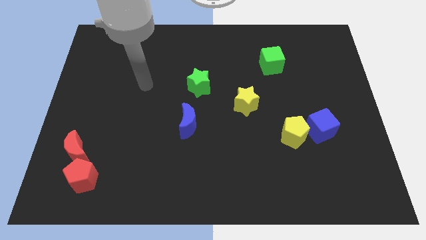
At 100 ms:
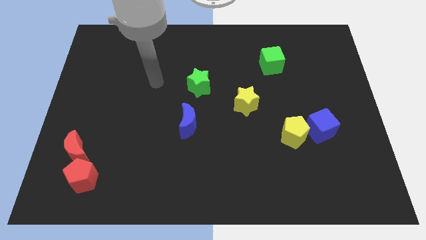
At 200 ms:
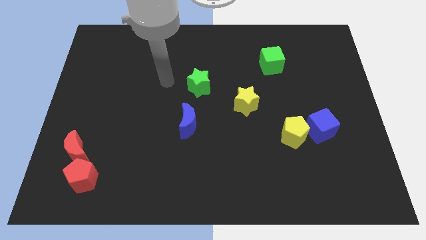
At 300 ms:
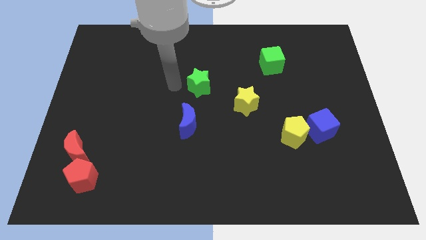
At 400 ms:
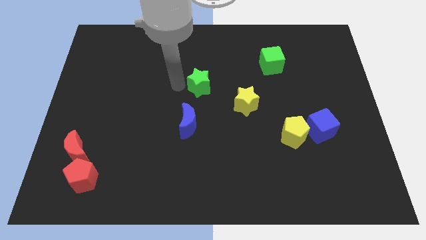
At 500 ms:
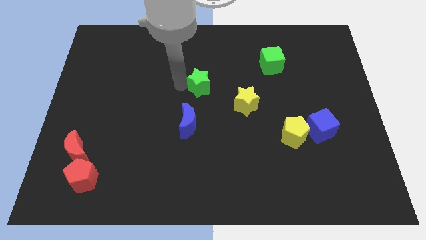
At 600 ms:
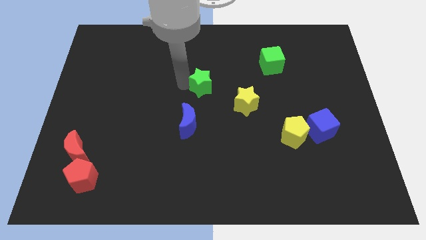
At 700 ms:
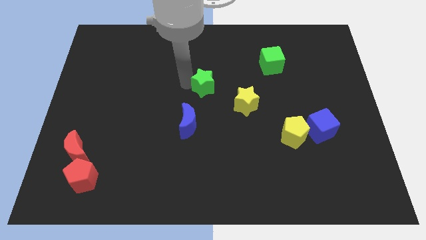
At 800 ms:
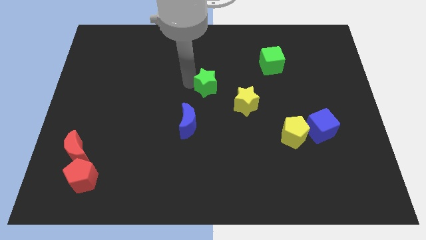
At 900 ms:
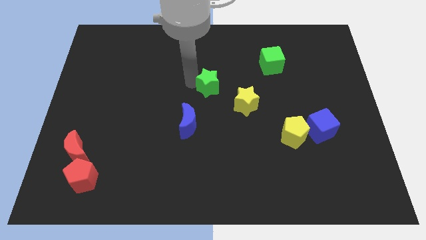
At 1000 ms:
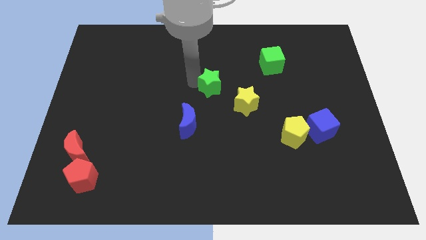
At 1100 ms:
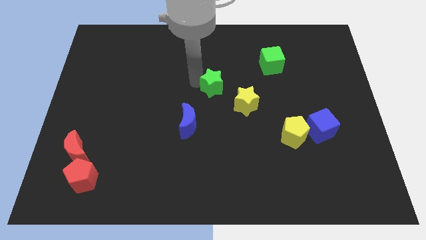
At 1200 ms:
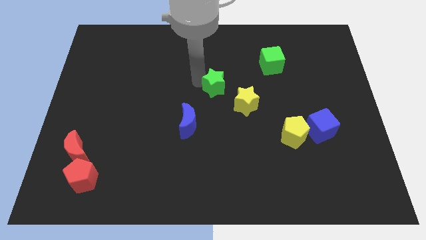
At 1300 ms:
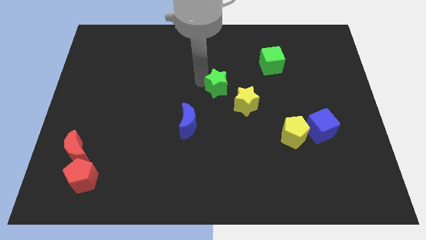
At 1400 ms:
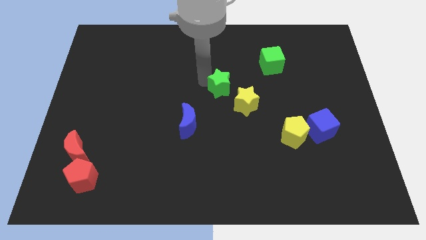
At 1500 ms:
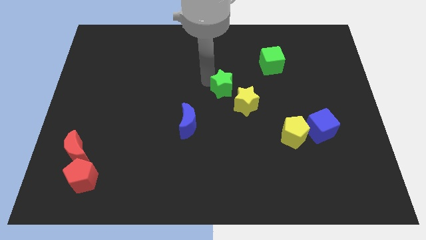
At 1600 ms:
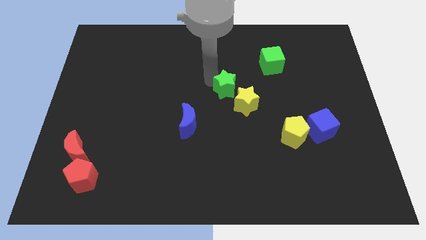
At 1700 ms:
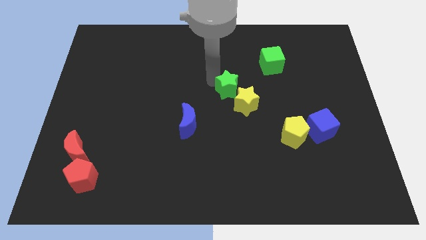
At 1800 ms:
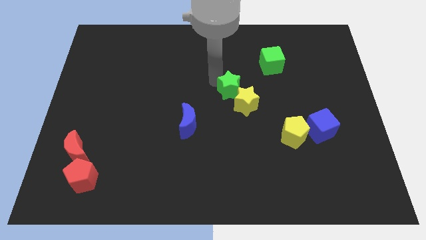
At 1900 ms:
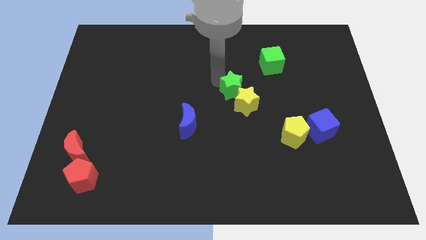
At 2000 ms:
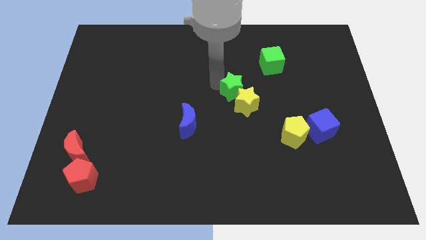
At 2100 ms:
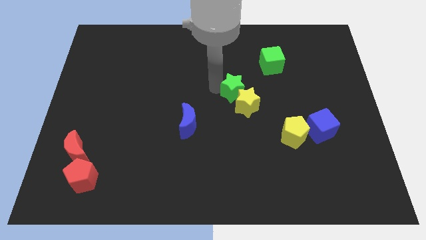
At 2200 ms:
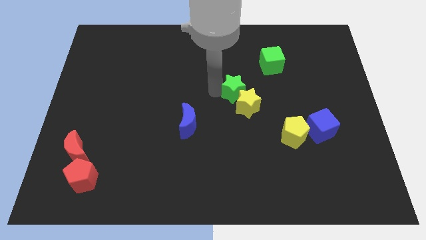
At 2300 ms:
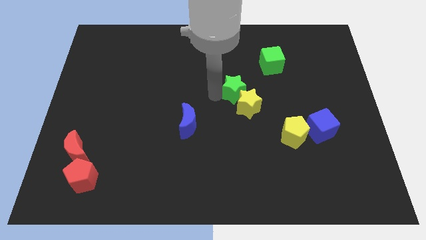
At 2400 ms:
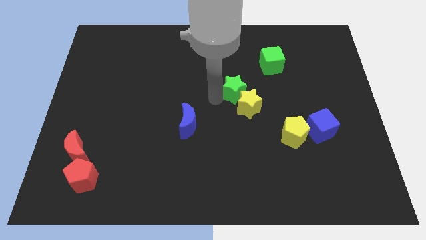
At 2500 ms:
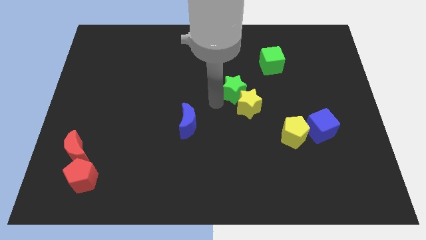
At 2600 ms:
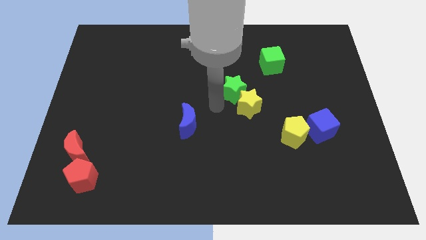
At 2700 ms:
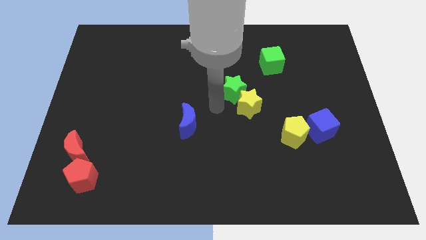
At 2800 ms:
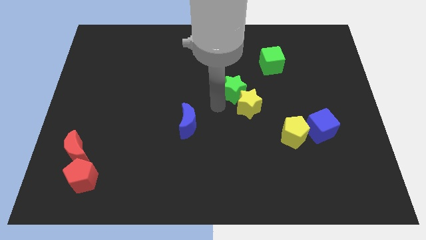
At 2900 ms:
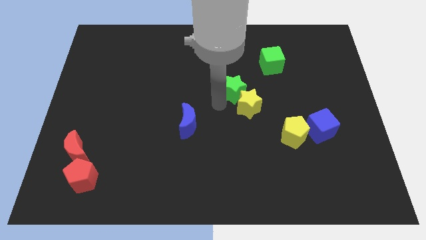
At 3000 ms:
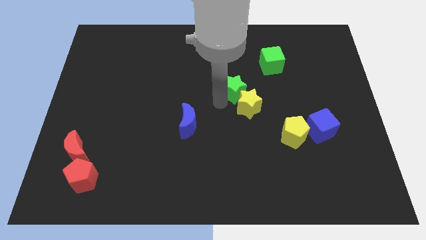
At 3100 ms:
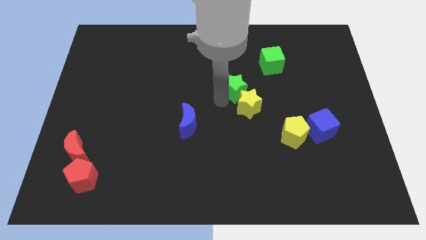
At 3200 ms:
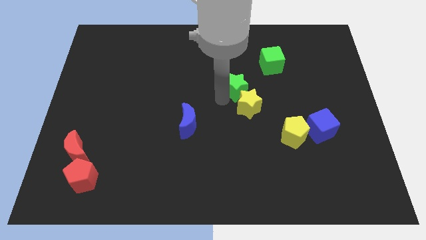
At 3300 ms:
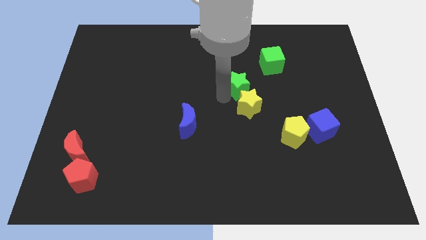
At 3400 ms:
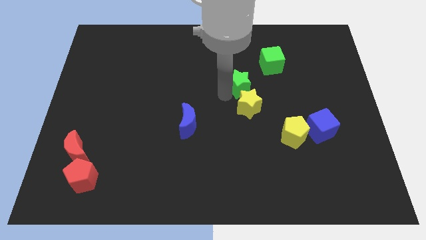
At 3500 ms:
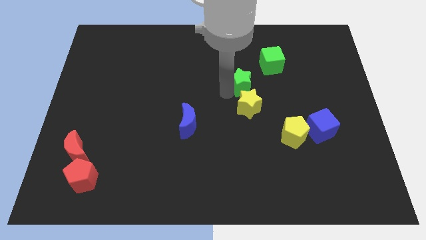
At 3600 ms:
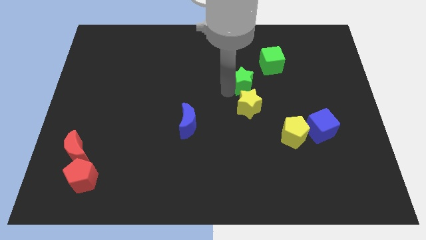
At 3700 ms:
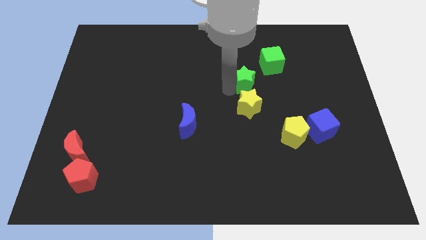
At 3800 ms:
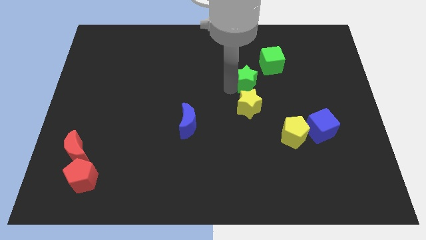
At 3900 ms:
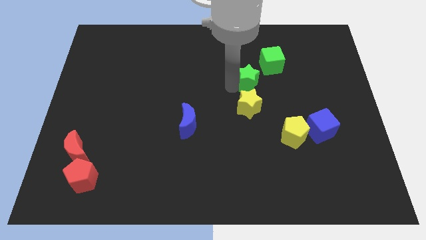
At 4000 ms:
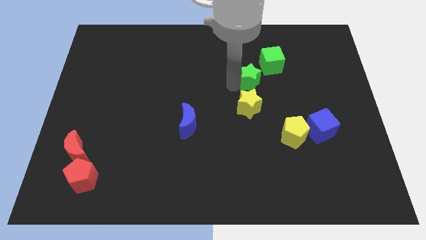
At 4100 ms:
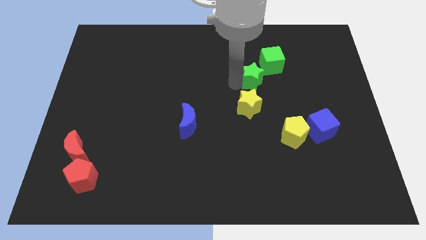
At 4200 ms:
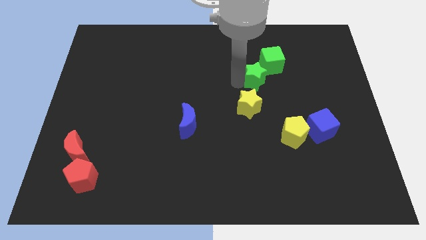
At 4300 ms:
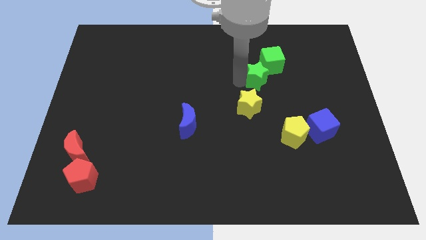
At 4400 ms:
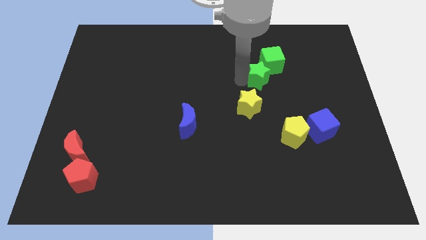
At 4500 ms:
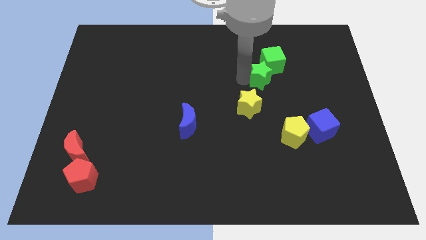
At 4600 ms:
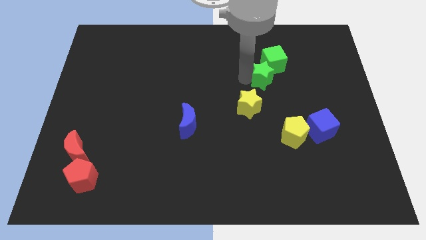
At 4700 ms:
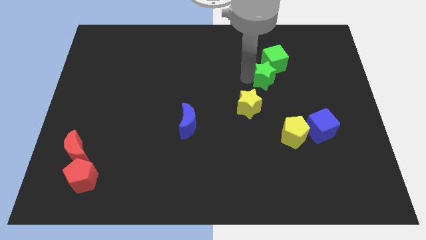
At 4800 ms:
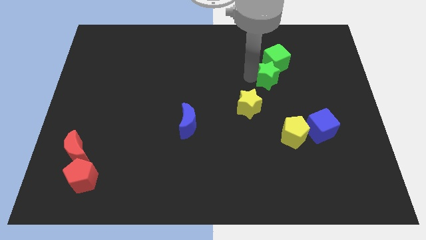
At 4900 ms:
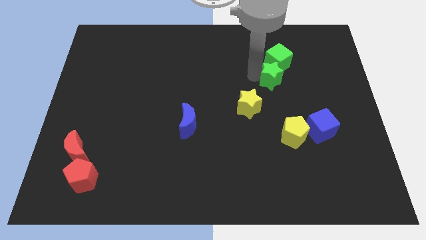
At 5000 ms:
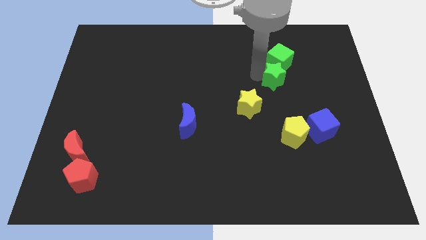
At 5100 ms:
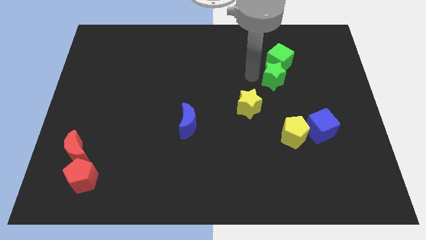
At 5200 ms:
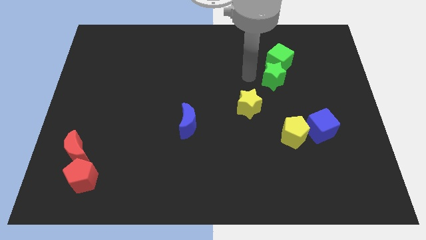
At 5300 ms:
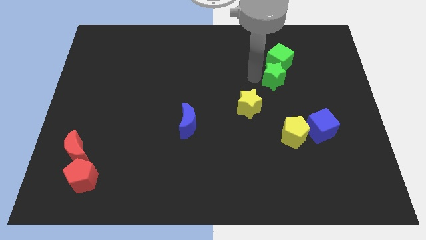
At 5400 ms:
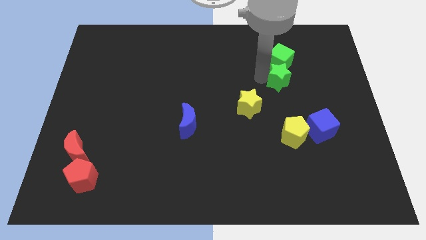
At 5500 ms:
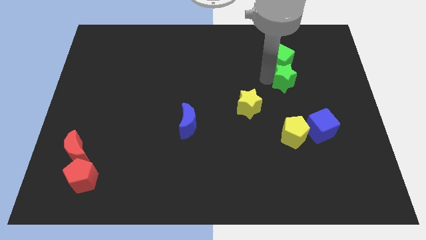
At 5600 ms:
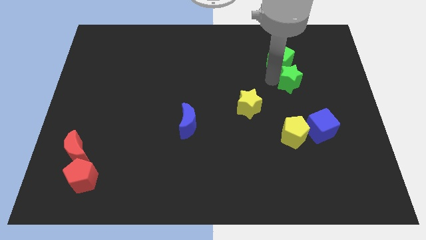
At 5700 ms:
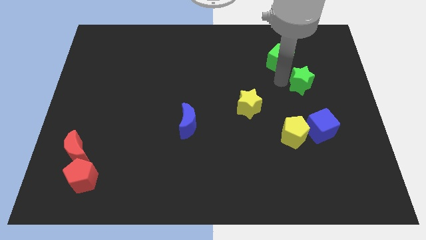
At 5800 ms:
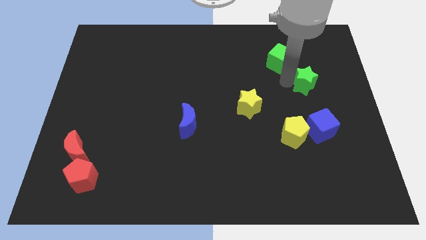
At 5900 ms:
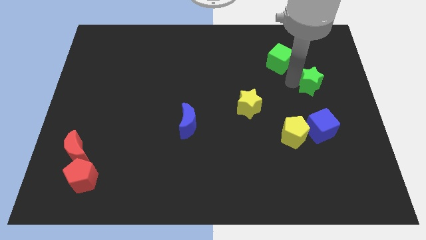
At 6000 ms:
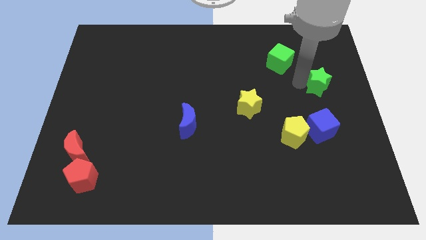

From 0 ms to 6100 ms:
push the green star to the right side of the board

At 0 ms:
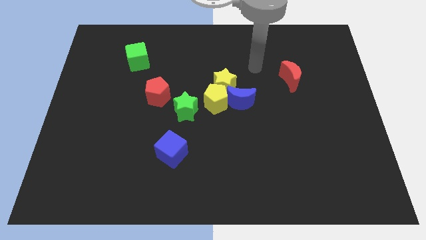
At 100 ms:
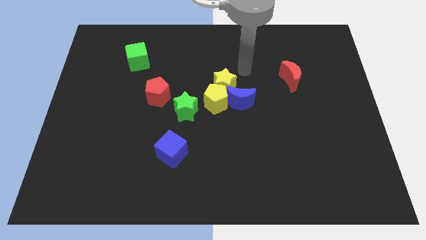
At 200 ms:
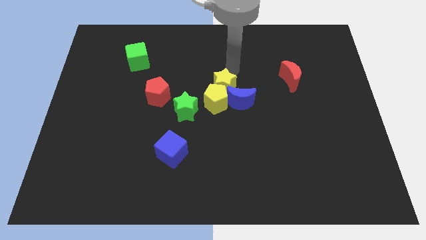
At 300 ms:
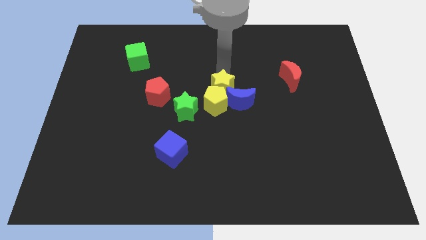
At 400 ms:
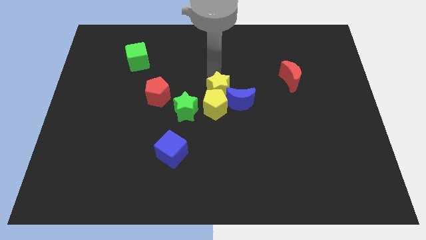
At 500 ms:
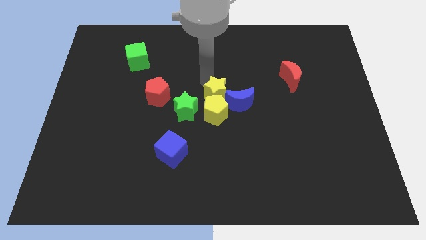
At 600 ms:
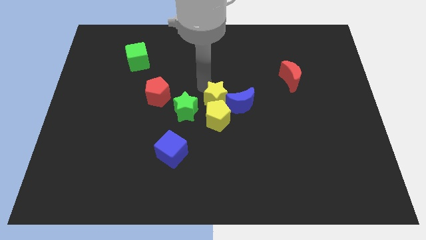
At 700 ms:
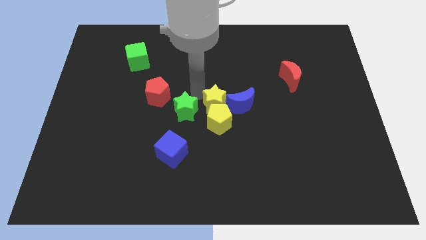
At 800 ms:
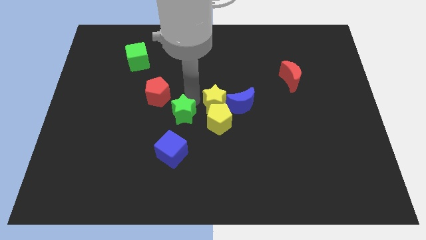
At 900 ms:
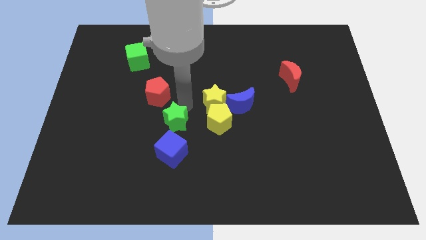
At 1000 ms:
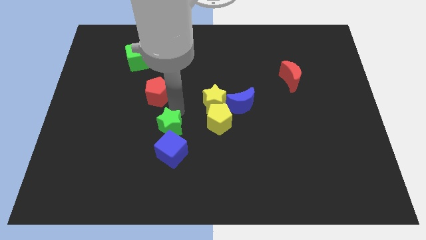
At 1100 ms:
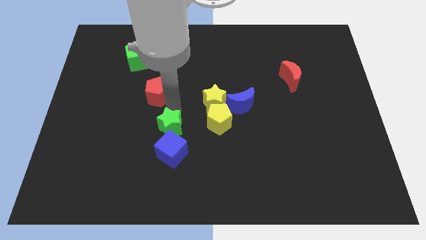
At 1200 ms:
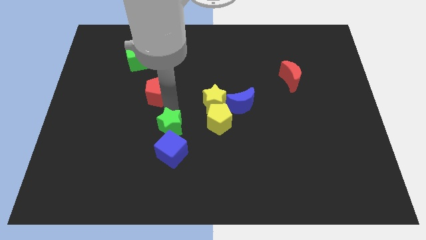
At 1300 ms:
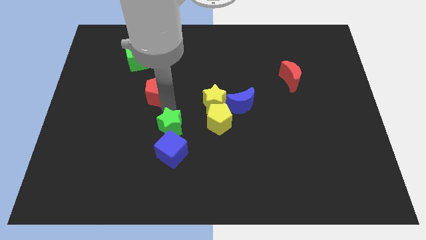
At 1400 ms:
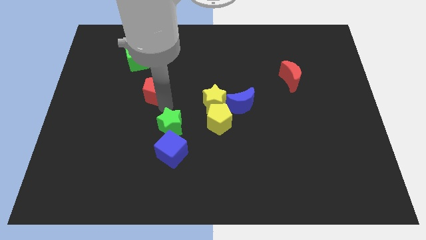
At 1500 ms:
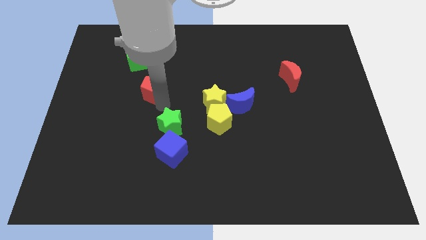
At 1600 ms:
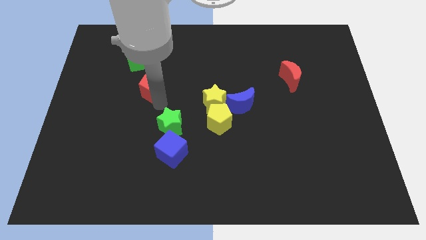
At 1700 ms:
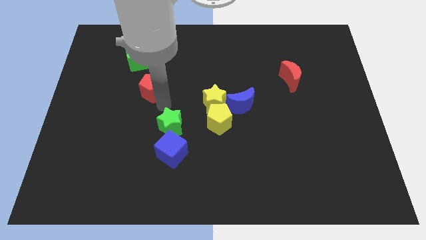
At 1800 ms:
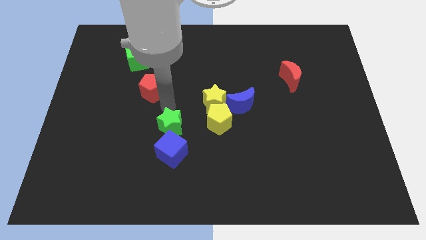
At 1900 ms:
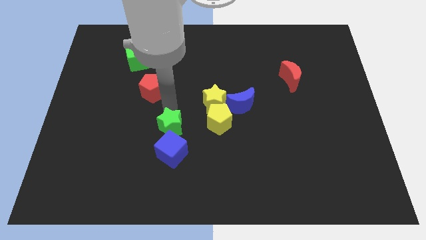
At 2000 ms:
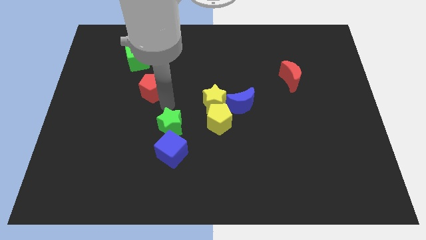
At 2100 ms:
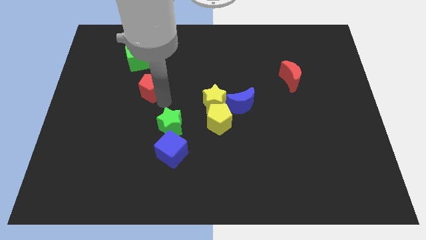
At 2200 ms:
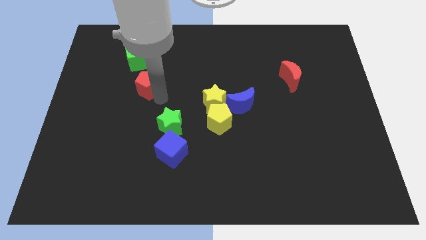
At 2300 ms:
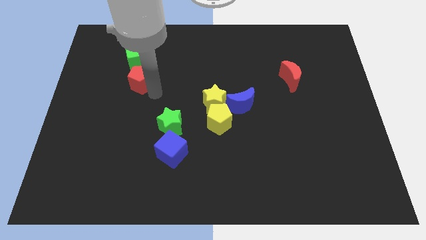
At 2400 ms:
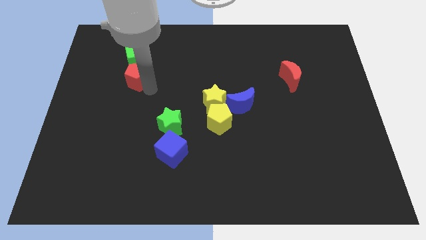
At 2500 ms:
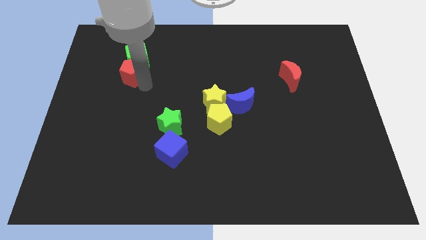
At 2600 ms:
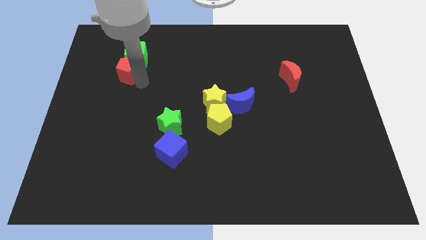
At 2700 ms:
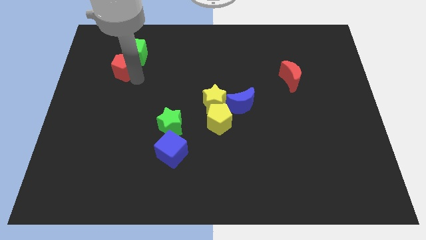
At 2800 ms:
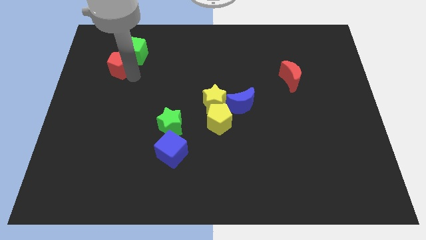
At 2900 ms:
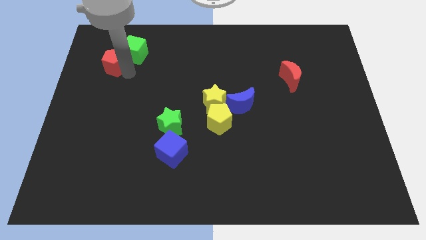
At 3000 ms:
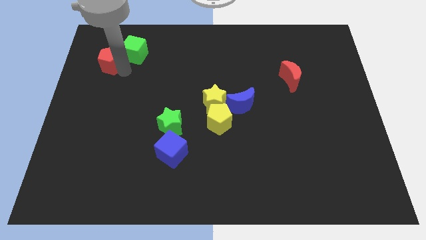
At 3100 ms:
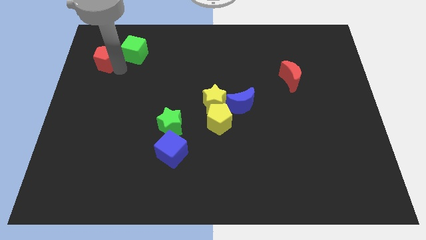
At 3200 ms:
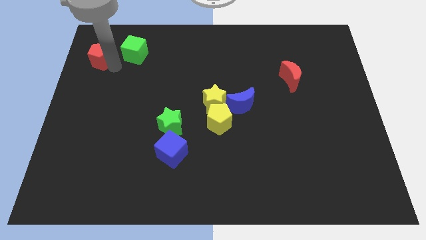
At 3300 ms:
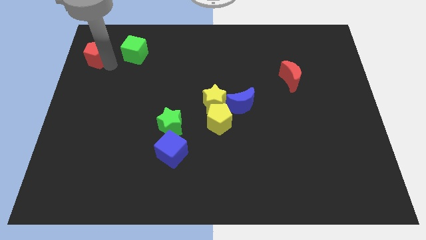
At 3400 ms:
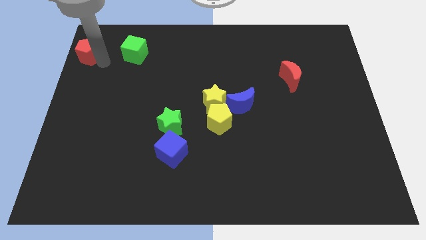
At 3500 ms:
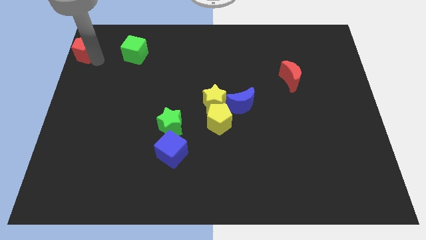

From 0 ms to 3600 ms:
slide the red pentagon to the top left
